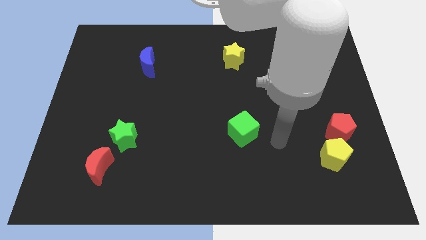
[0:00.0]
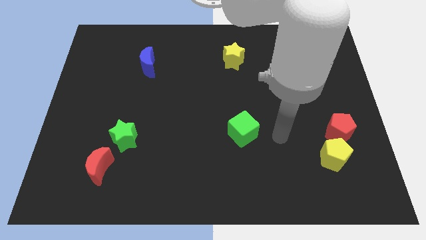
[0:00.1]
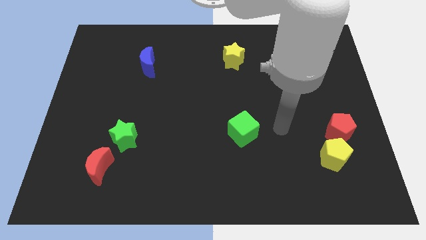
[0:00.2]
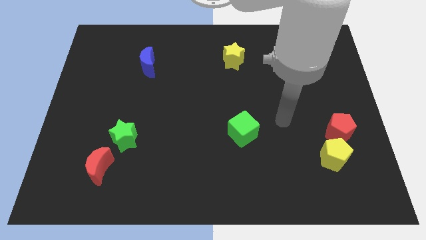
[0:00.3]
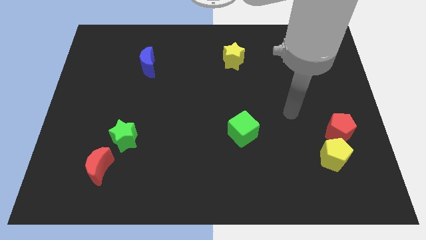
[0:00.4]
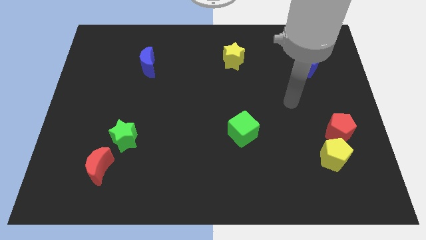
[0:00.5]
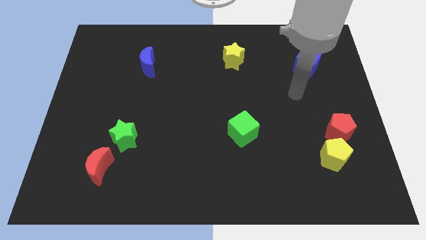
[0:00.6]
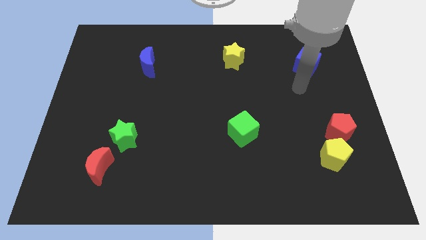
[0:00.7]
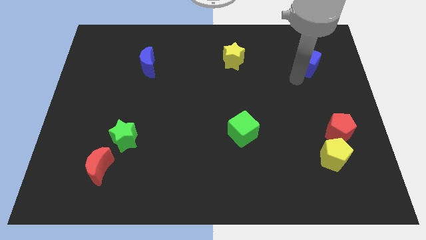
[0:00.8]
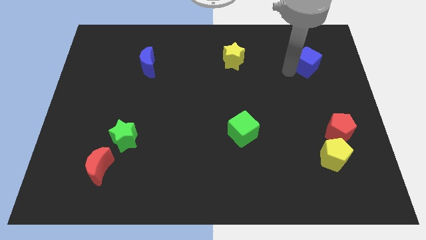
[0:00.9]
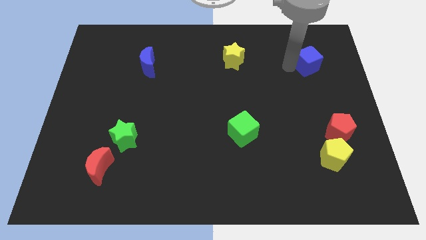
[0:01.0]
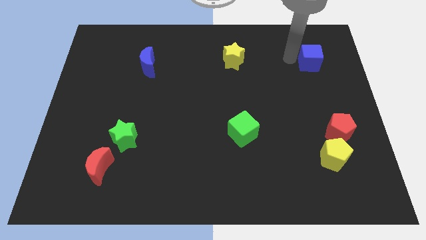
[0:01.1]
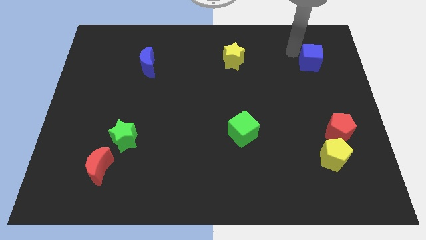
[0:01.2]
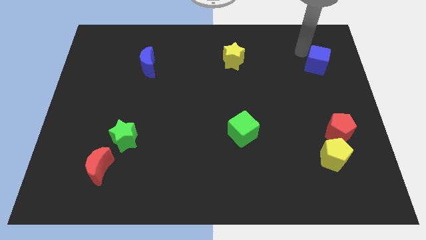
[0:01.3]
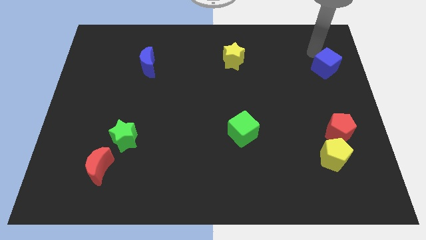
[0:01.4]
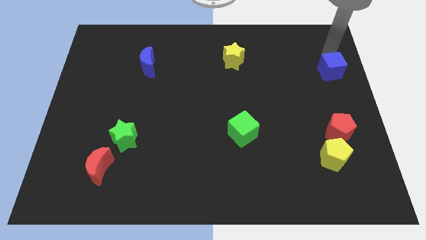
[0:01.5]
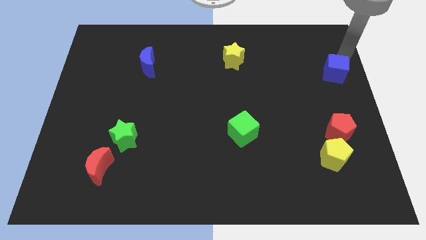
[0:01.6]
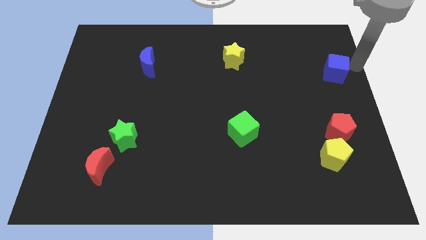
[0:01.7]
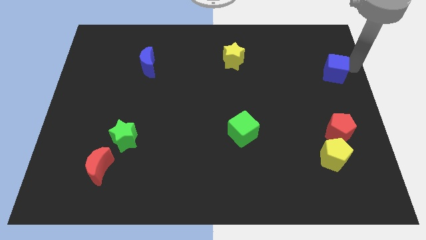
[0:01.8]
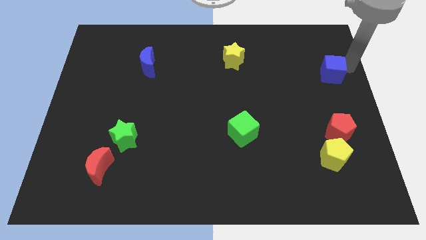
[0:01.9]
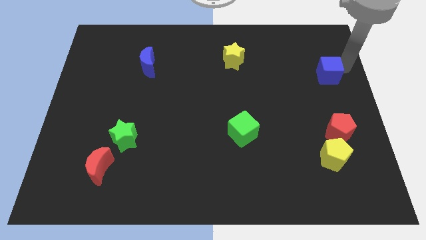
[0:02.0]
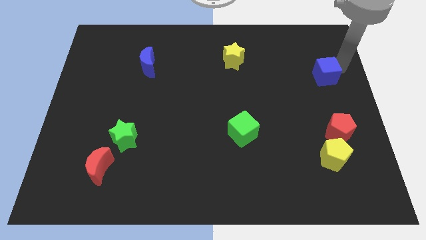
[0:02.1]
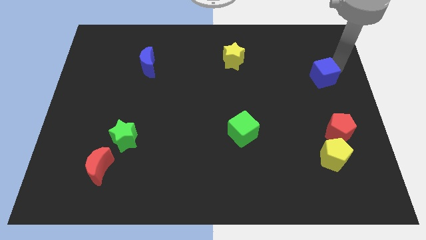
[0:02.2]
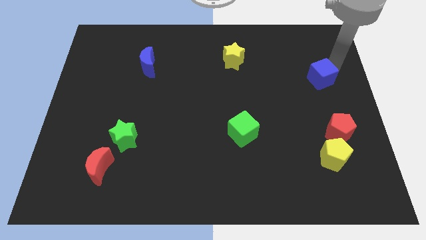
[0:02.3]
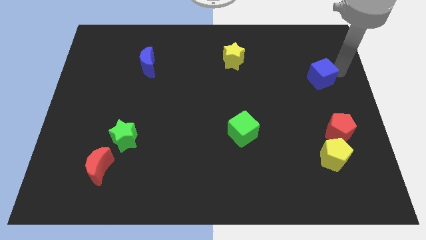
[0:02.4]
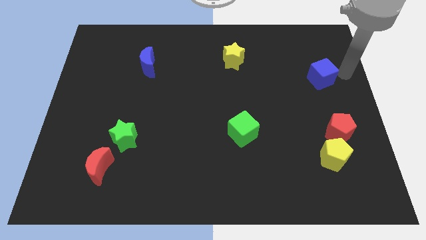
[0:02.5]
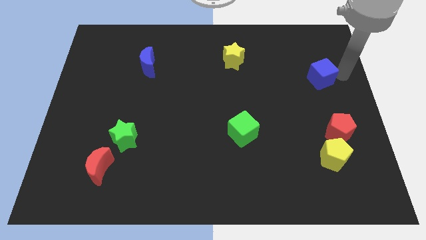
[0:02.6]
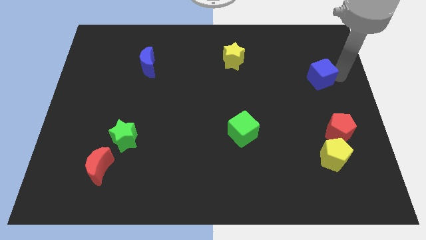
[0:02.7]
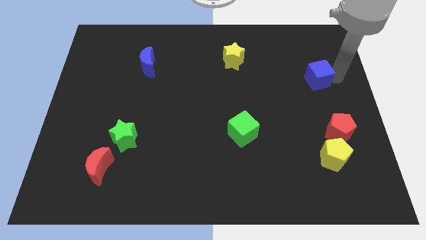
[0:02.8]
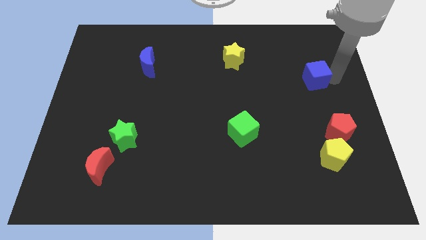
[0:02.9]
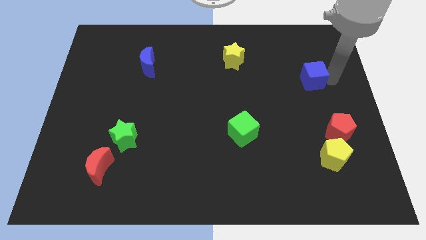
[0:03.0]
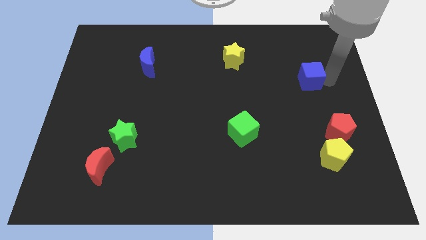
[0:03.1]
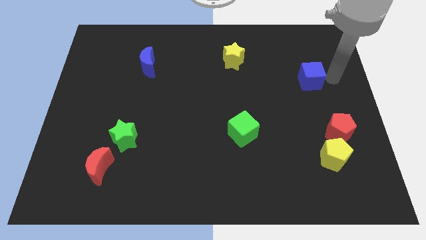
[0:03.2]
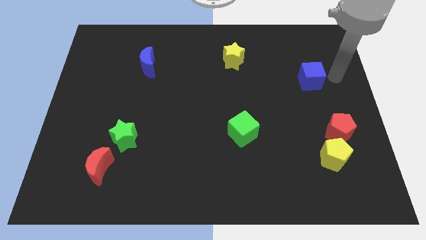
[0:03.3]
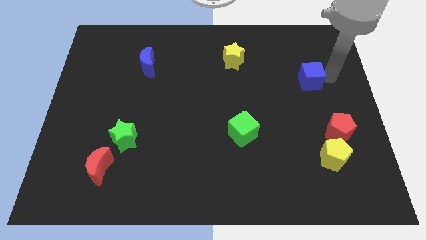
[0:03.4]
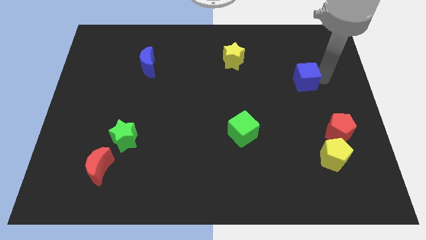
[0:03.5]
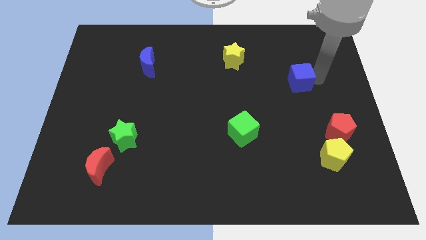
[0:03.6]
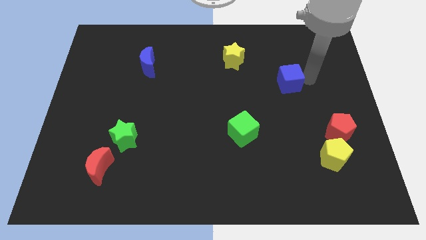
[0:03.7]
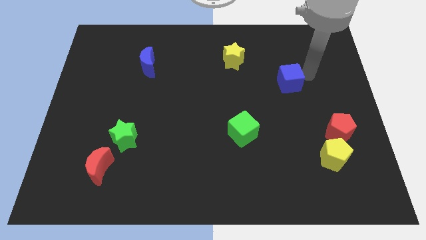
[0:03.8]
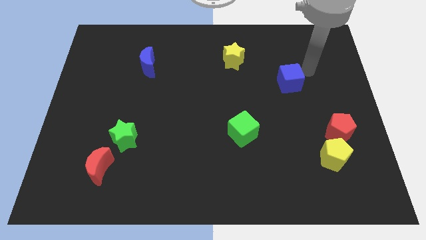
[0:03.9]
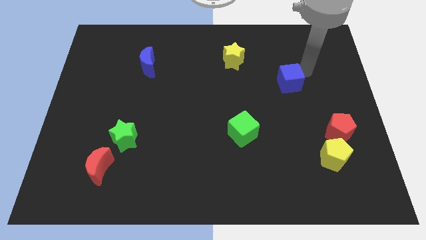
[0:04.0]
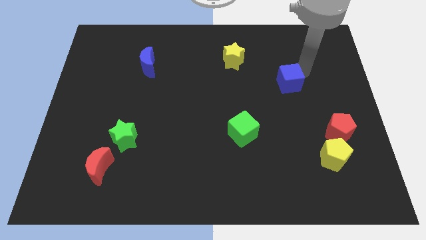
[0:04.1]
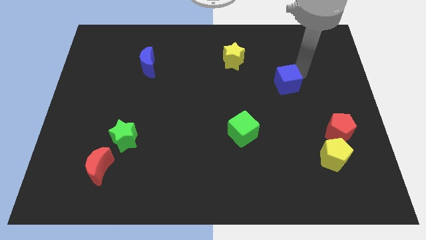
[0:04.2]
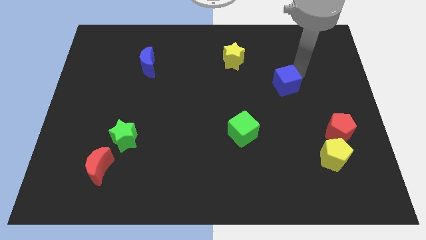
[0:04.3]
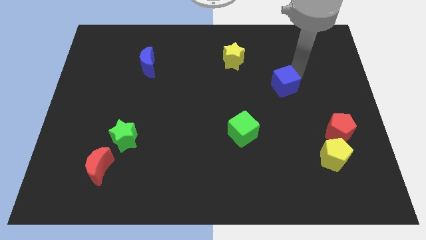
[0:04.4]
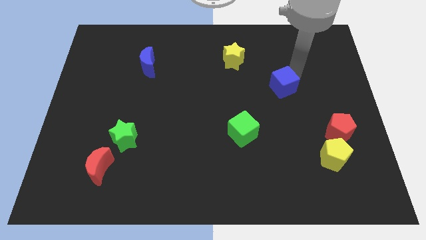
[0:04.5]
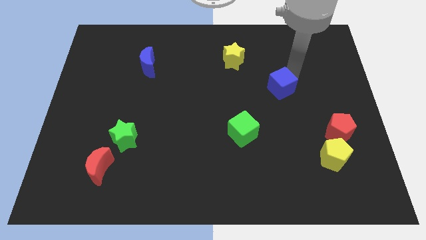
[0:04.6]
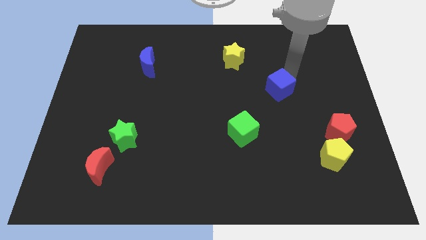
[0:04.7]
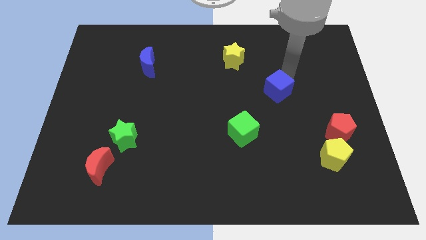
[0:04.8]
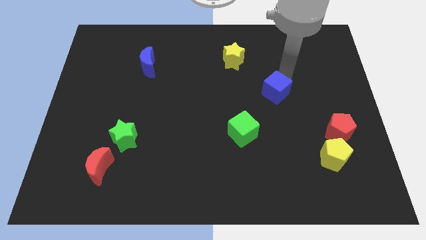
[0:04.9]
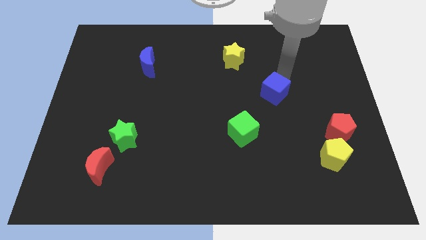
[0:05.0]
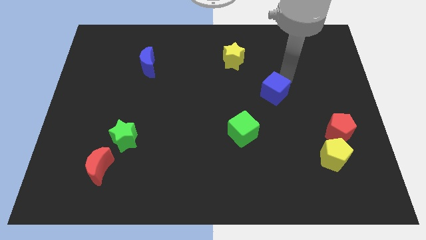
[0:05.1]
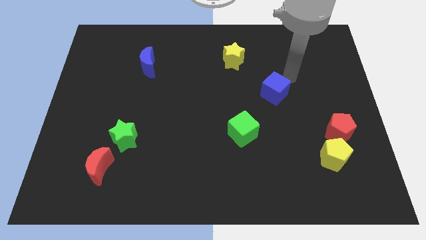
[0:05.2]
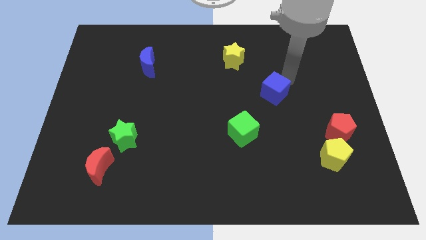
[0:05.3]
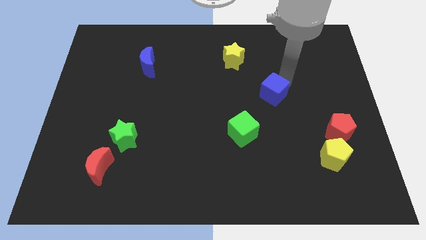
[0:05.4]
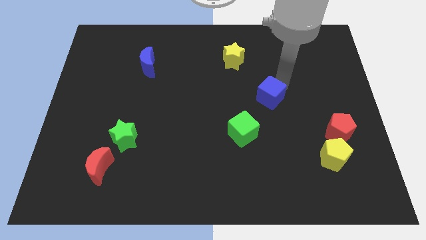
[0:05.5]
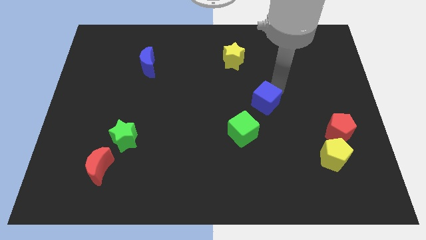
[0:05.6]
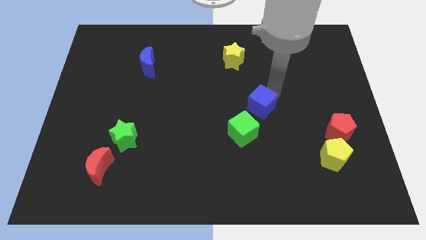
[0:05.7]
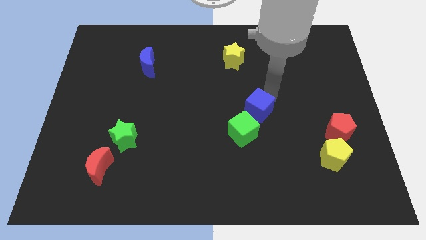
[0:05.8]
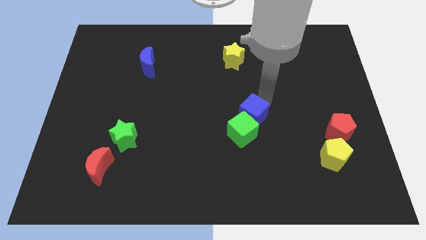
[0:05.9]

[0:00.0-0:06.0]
slide the blue cube towards the green cube
